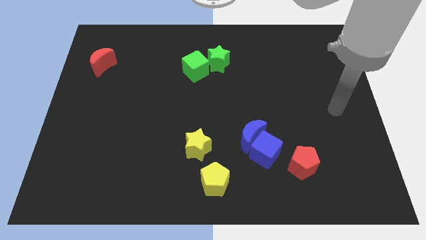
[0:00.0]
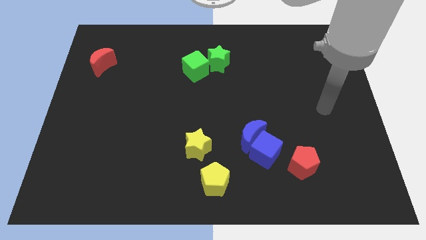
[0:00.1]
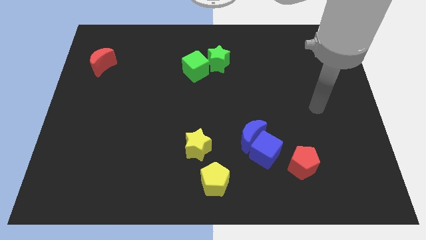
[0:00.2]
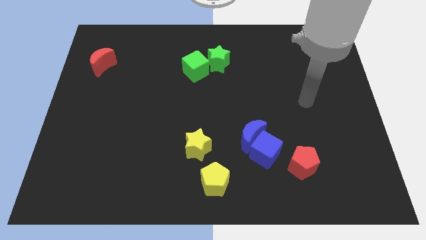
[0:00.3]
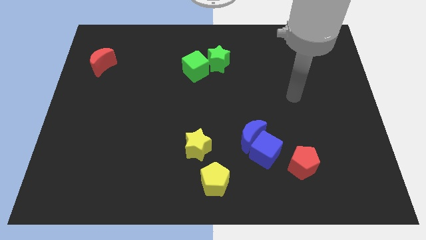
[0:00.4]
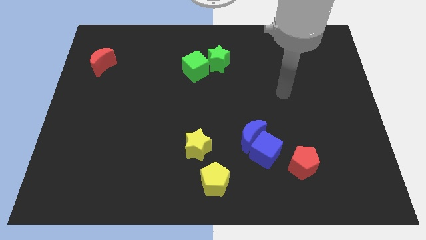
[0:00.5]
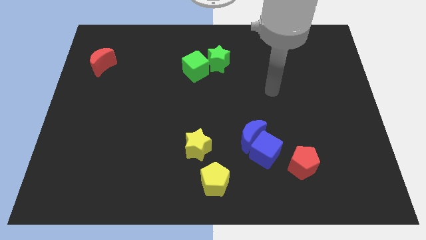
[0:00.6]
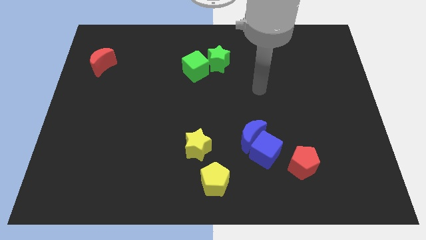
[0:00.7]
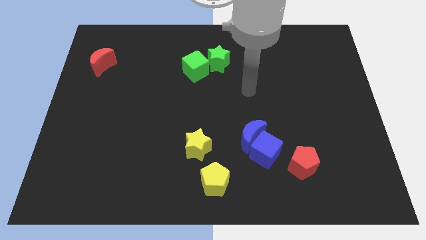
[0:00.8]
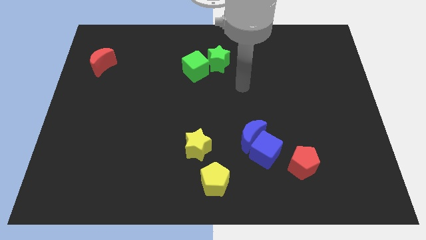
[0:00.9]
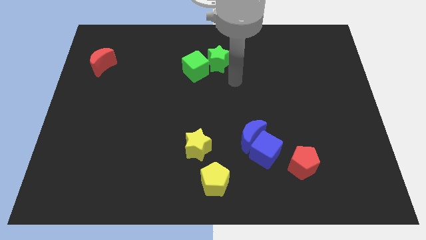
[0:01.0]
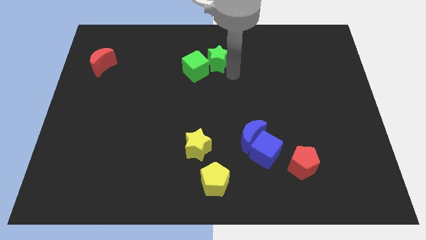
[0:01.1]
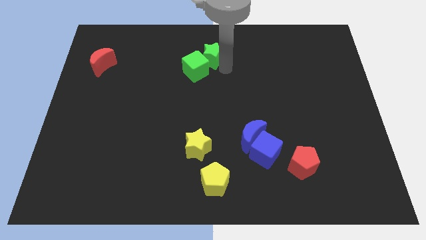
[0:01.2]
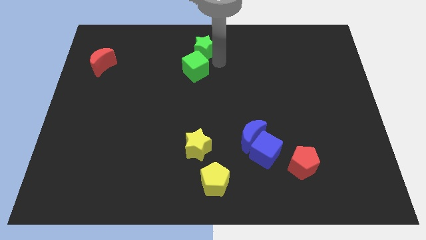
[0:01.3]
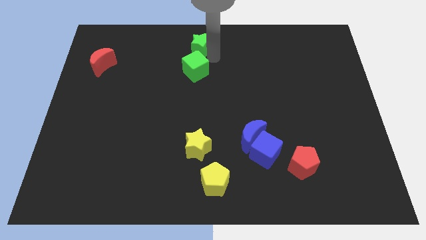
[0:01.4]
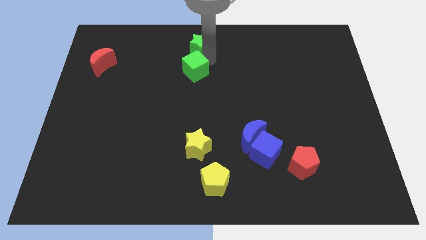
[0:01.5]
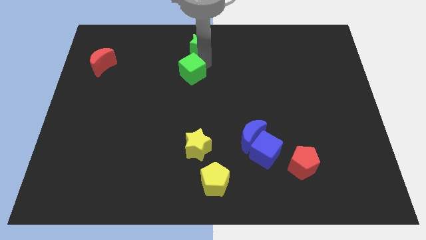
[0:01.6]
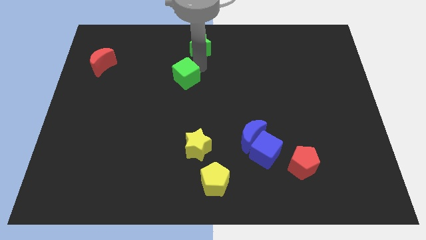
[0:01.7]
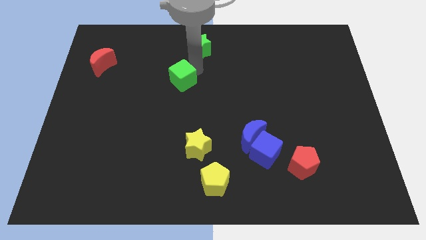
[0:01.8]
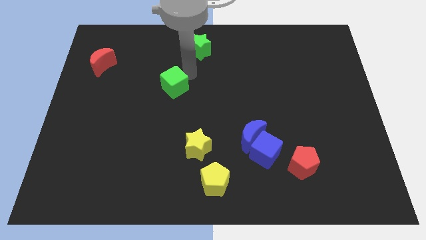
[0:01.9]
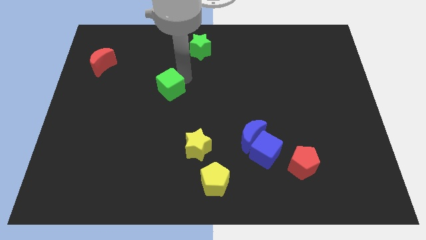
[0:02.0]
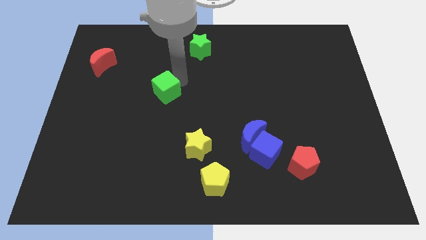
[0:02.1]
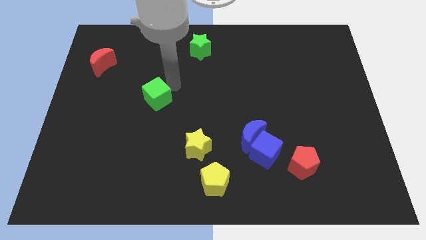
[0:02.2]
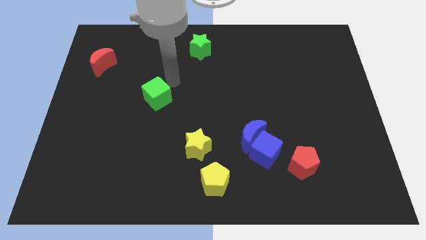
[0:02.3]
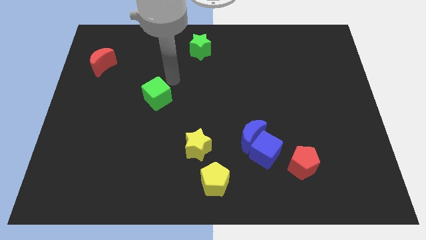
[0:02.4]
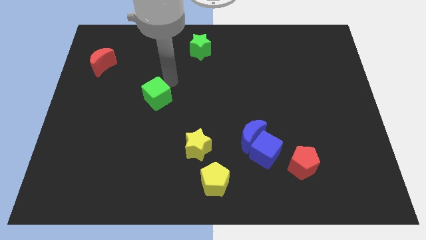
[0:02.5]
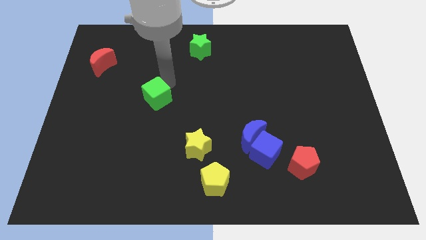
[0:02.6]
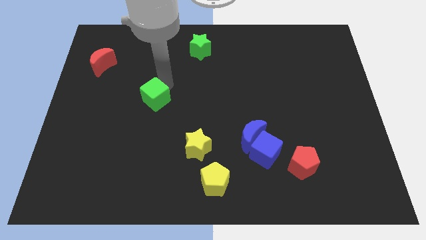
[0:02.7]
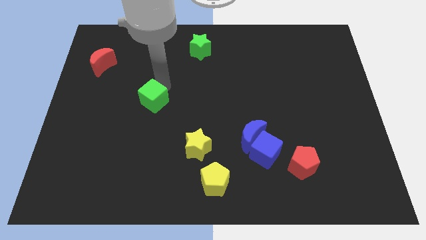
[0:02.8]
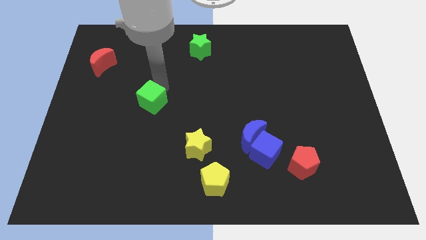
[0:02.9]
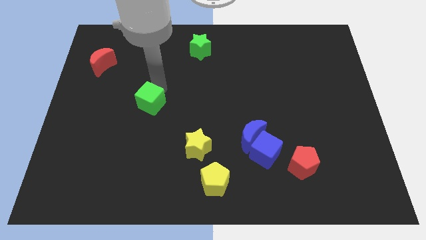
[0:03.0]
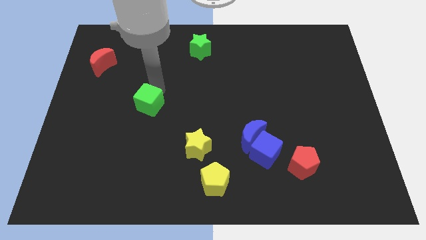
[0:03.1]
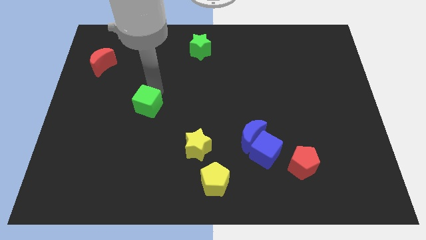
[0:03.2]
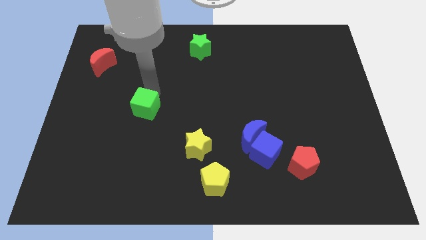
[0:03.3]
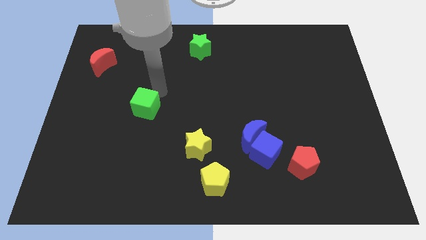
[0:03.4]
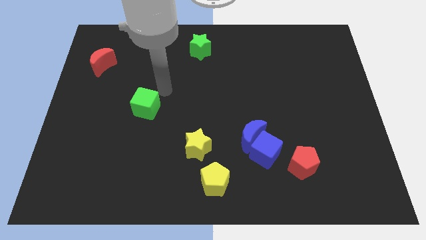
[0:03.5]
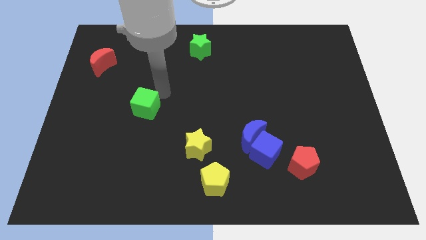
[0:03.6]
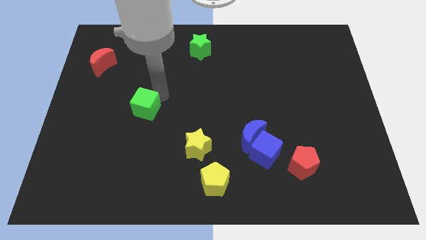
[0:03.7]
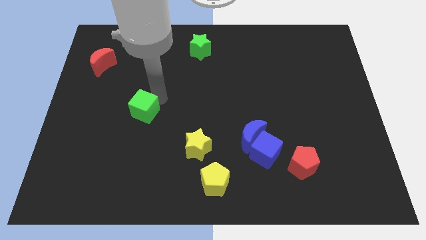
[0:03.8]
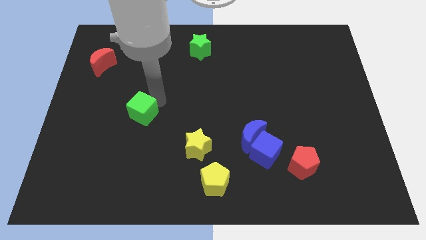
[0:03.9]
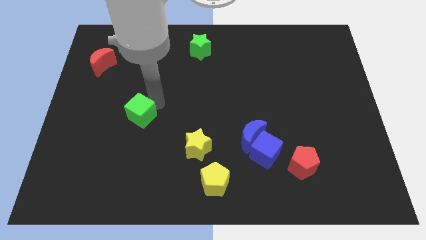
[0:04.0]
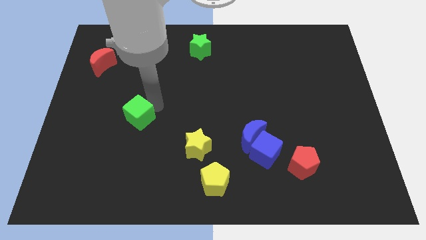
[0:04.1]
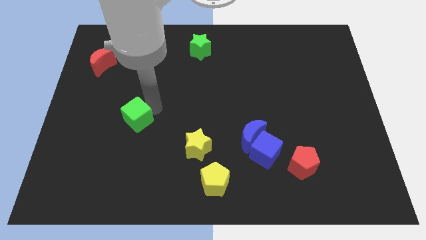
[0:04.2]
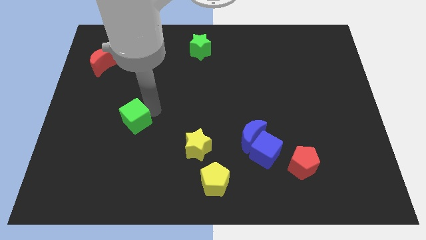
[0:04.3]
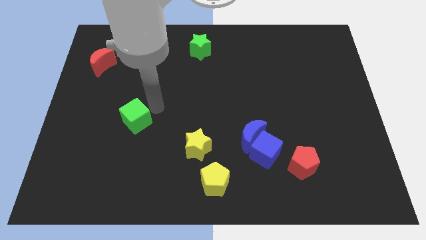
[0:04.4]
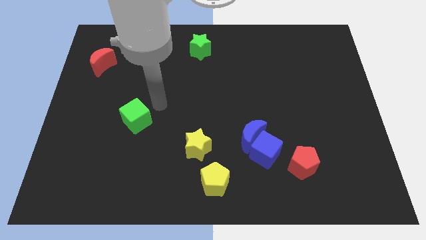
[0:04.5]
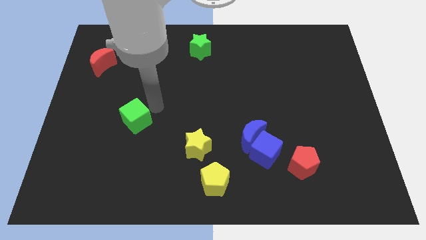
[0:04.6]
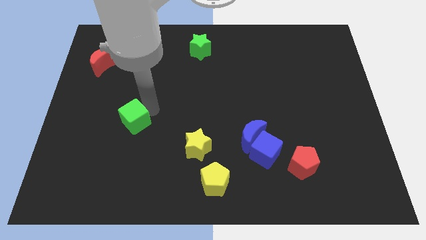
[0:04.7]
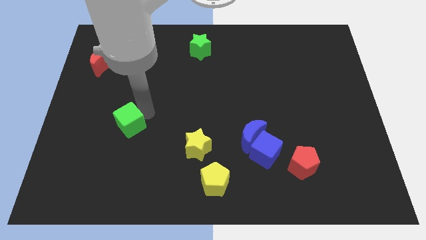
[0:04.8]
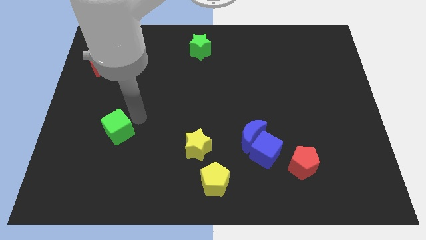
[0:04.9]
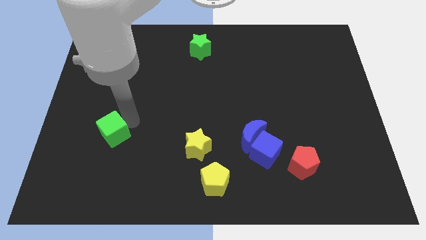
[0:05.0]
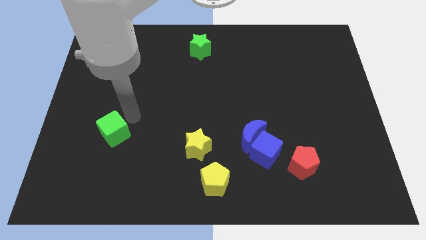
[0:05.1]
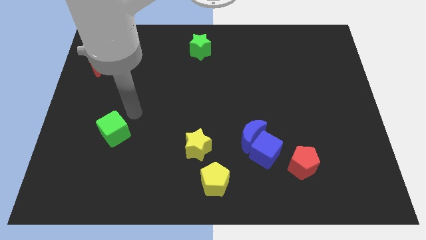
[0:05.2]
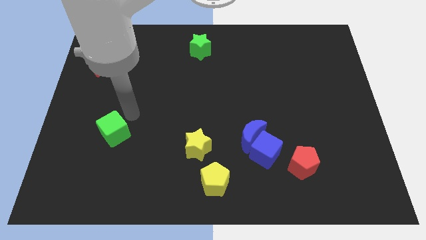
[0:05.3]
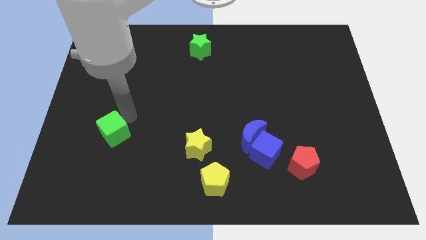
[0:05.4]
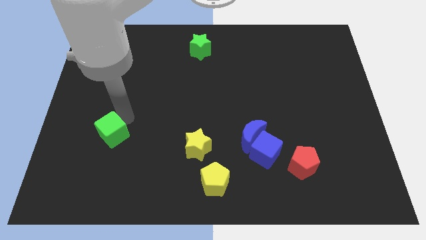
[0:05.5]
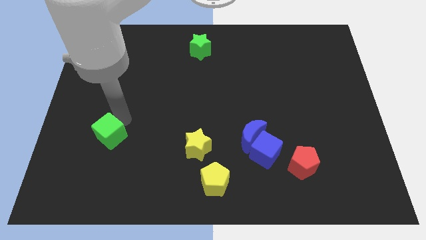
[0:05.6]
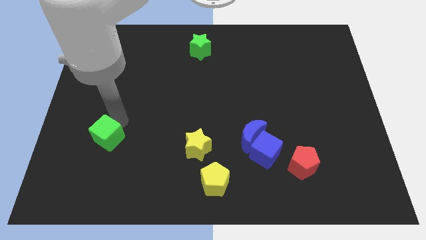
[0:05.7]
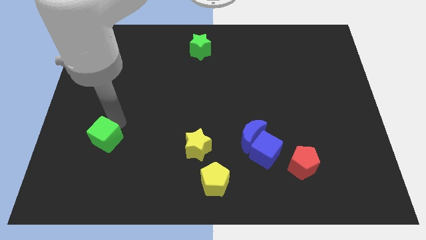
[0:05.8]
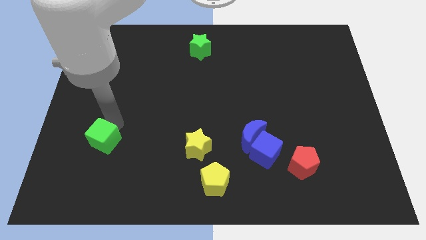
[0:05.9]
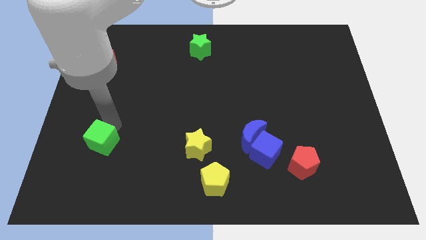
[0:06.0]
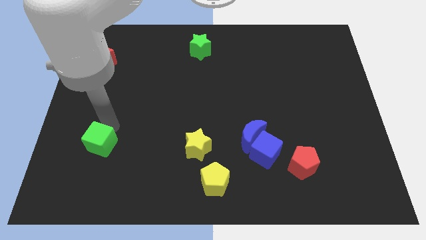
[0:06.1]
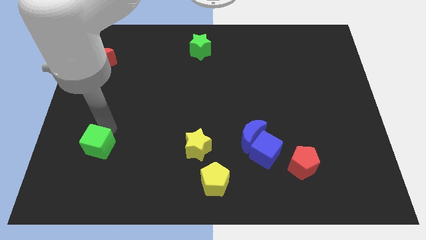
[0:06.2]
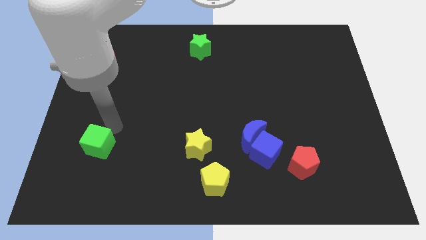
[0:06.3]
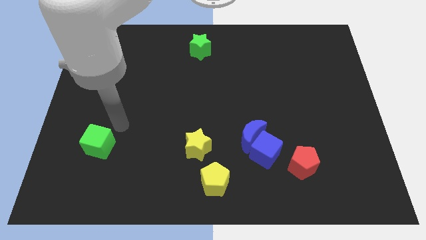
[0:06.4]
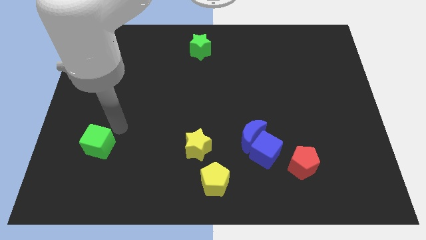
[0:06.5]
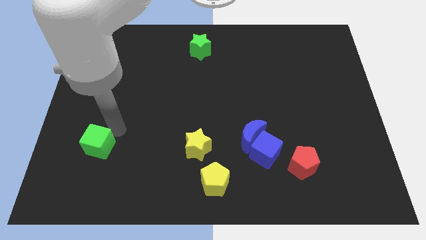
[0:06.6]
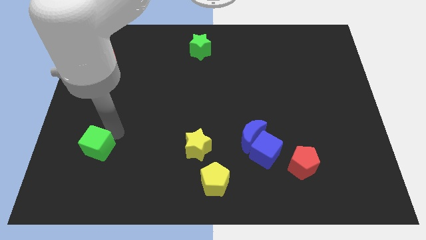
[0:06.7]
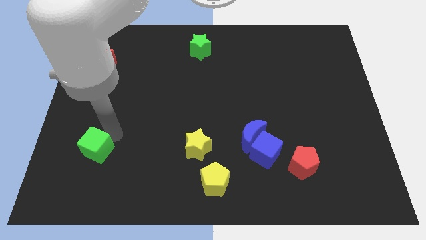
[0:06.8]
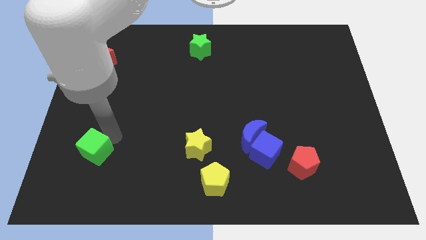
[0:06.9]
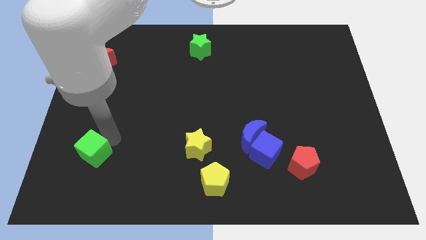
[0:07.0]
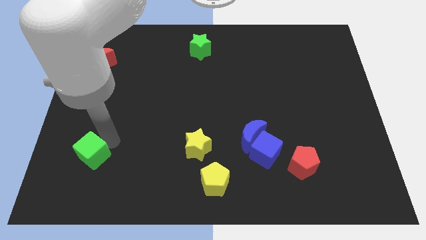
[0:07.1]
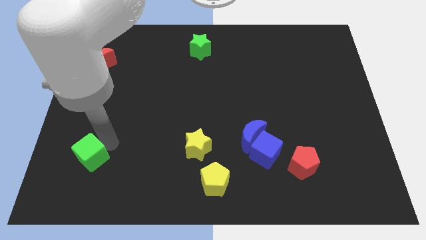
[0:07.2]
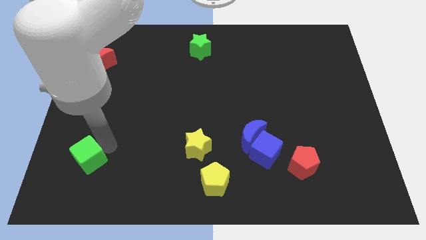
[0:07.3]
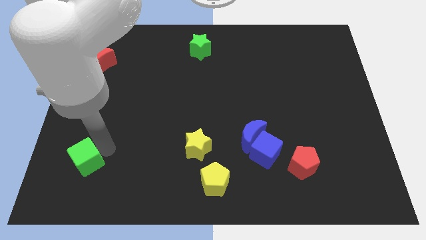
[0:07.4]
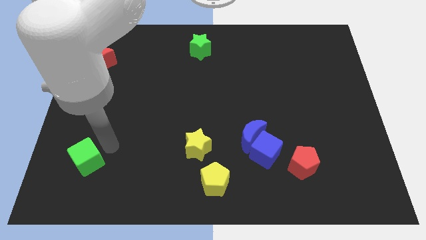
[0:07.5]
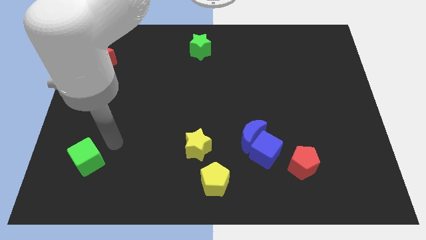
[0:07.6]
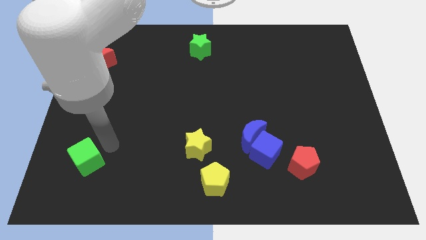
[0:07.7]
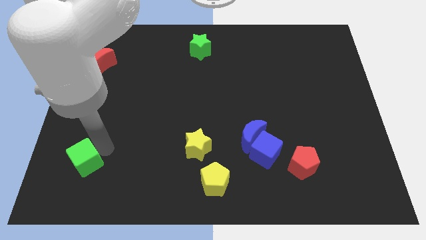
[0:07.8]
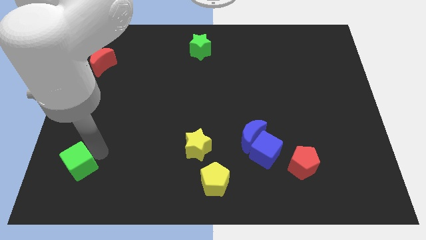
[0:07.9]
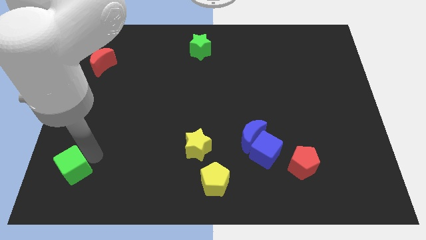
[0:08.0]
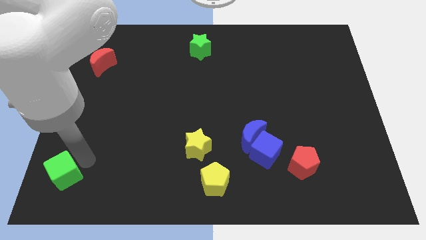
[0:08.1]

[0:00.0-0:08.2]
move the green cube to the bottom left of the board
